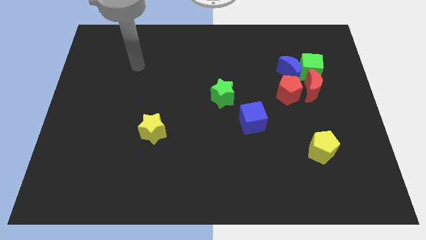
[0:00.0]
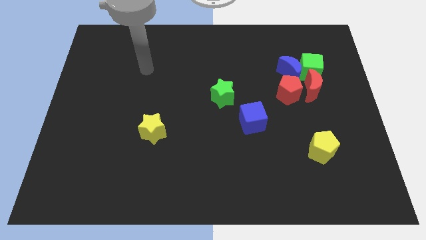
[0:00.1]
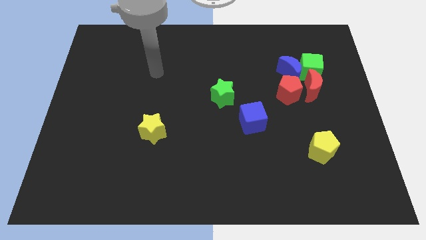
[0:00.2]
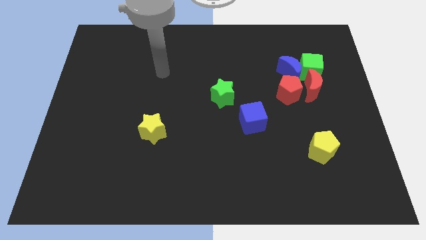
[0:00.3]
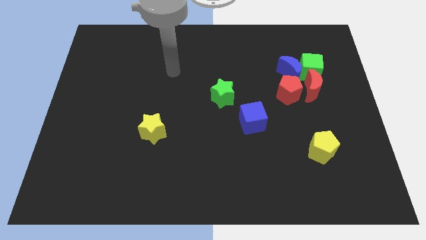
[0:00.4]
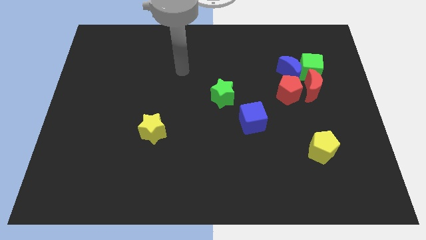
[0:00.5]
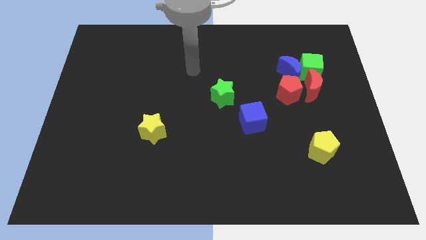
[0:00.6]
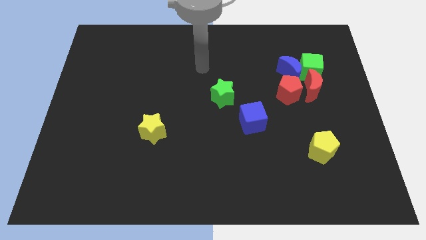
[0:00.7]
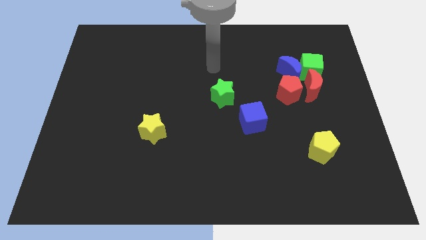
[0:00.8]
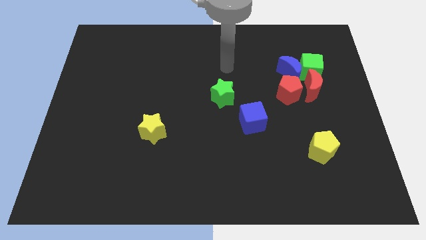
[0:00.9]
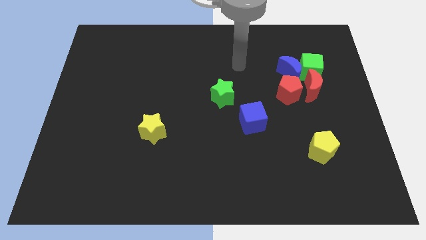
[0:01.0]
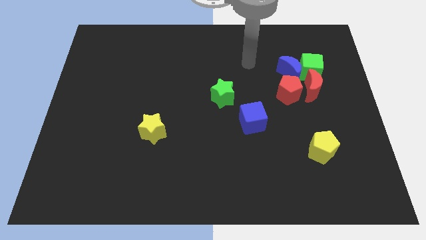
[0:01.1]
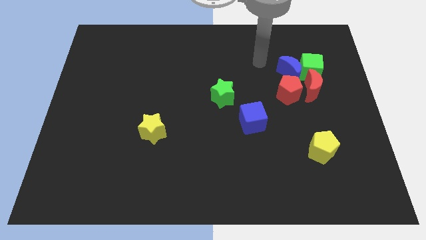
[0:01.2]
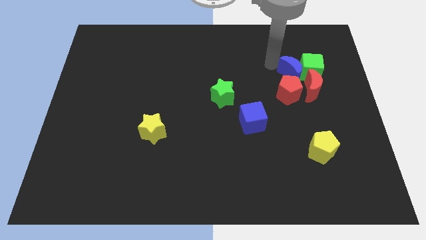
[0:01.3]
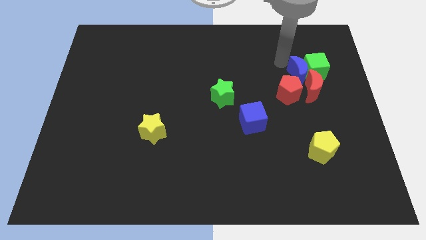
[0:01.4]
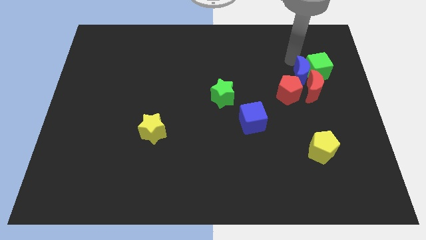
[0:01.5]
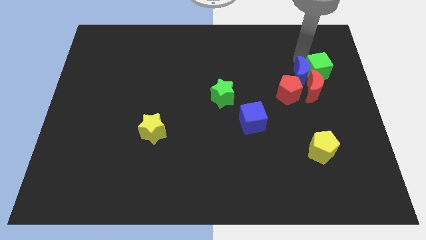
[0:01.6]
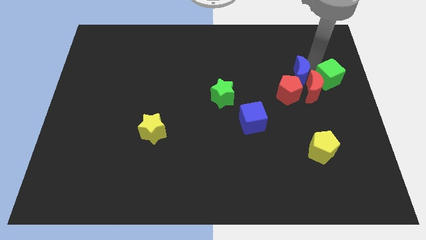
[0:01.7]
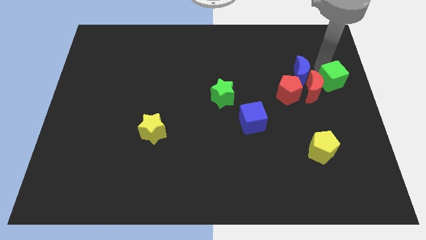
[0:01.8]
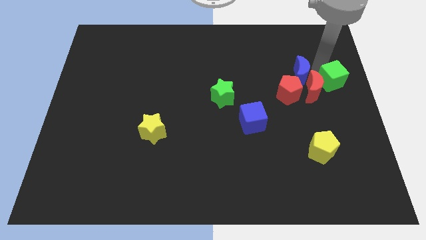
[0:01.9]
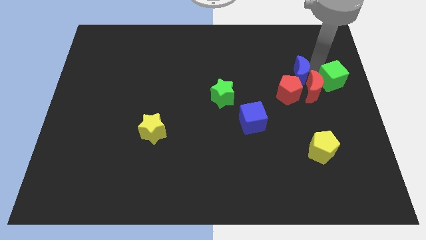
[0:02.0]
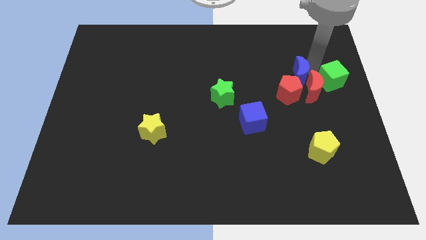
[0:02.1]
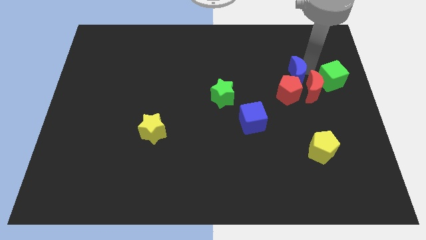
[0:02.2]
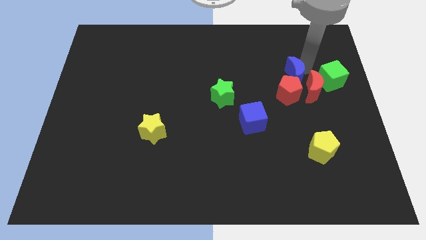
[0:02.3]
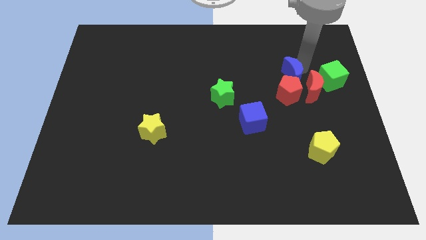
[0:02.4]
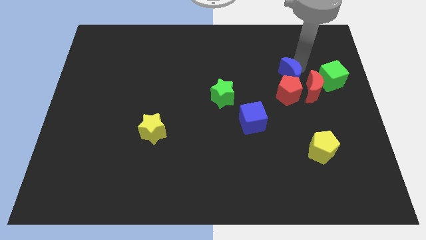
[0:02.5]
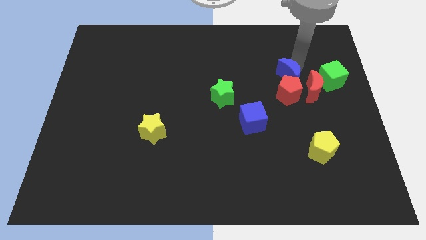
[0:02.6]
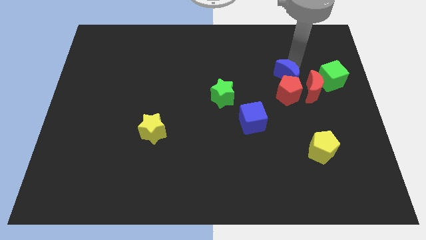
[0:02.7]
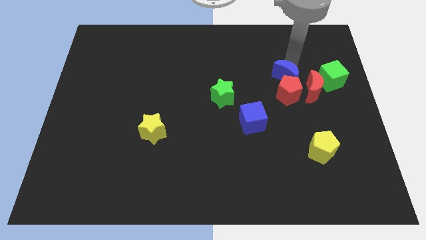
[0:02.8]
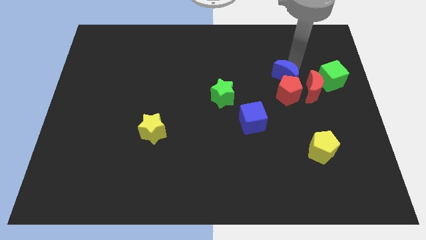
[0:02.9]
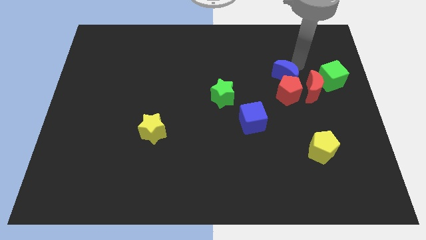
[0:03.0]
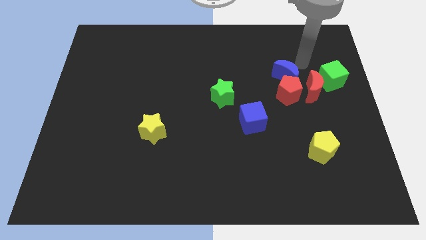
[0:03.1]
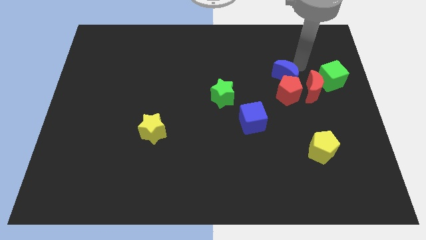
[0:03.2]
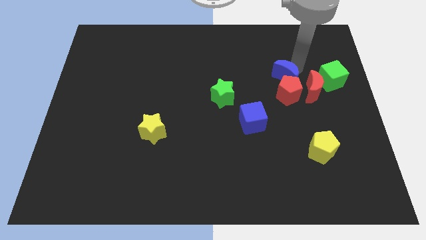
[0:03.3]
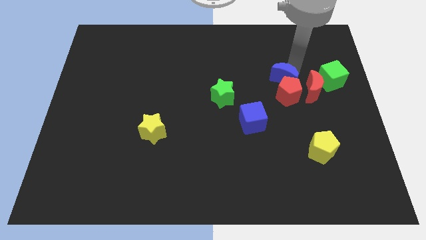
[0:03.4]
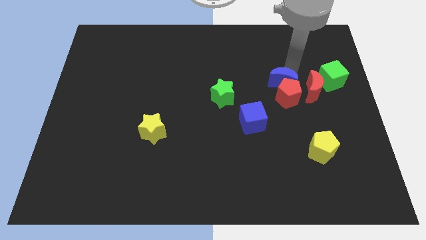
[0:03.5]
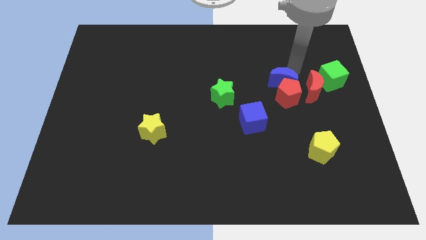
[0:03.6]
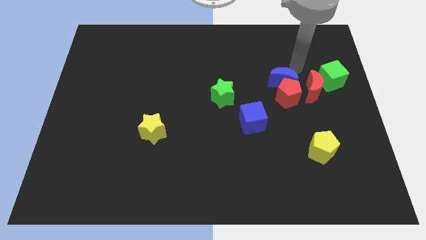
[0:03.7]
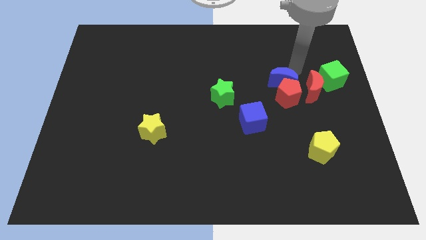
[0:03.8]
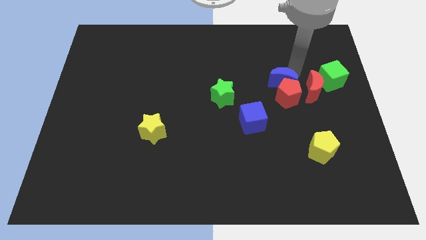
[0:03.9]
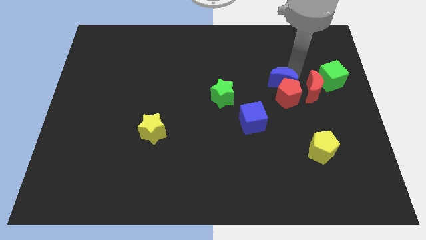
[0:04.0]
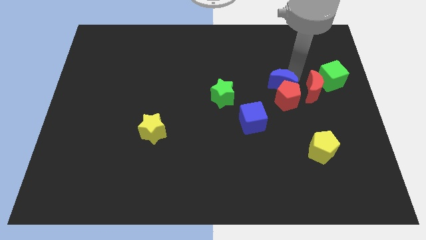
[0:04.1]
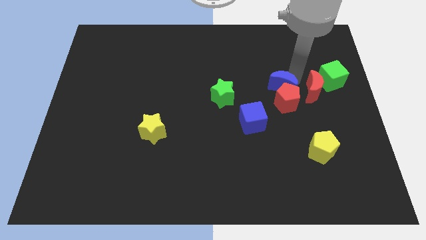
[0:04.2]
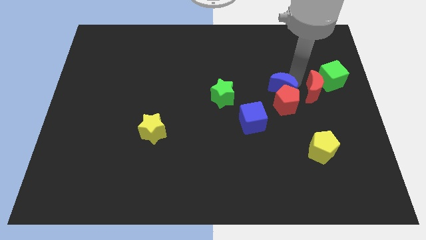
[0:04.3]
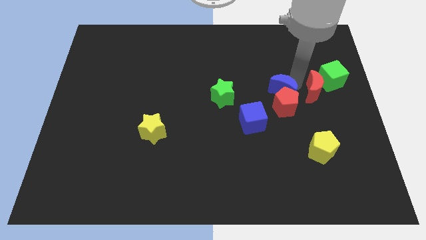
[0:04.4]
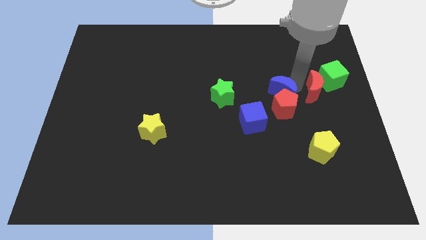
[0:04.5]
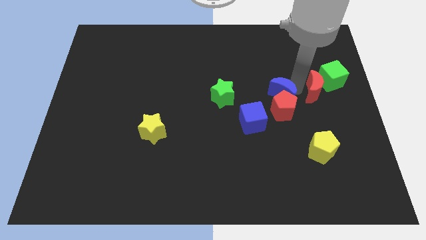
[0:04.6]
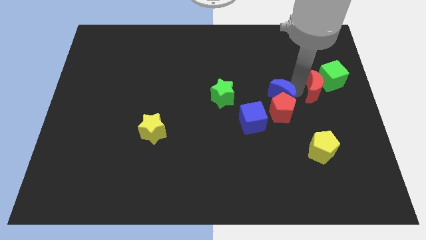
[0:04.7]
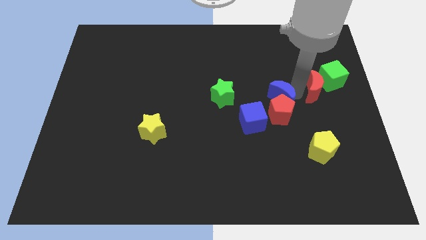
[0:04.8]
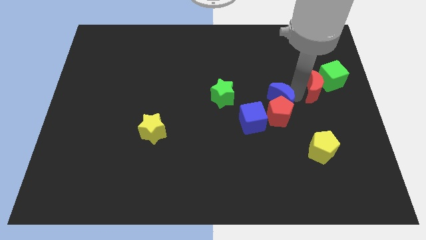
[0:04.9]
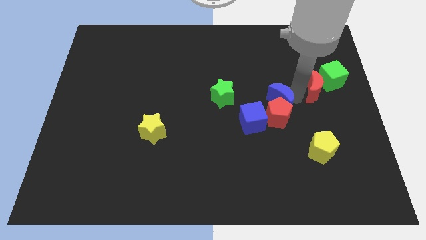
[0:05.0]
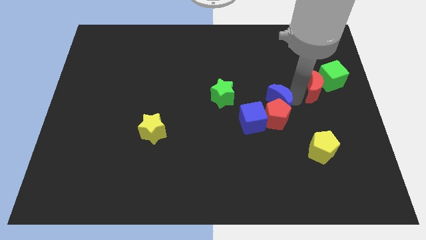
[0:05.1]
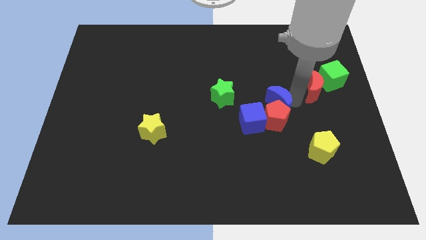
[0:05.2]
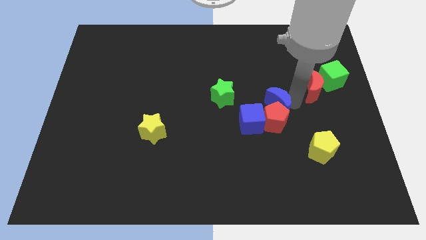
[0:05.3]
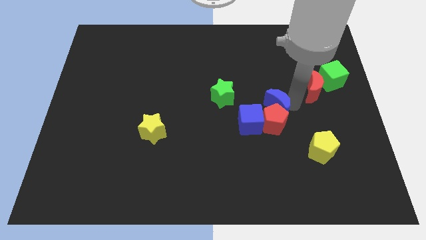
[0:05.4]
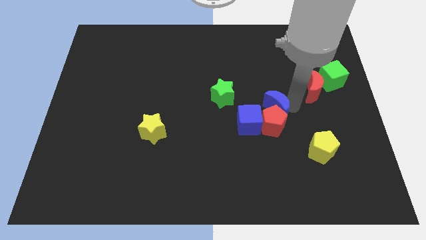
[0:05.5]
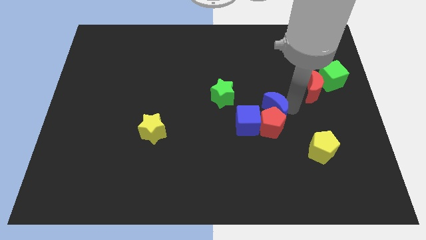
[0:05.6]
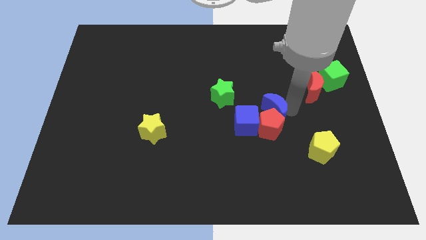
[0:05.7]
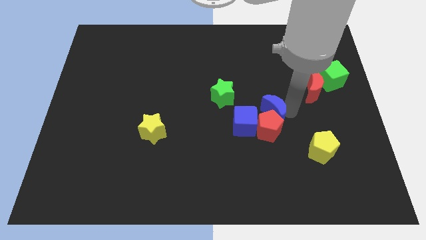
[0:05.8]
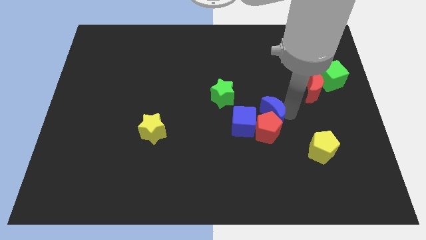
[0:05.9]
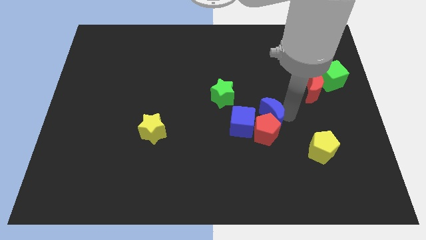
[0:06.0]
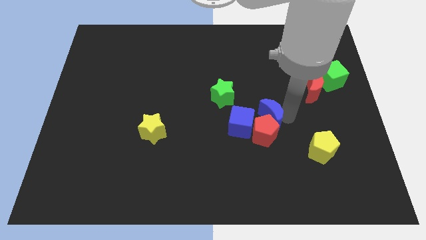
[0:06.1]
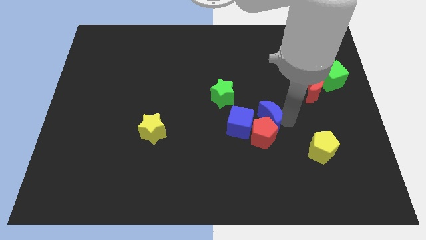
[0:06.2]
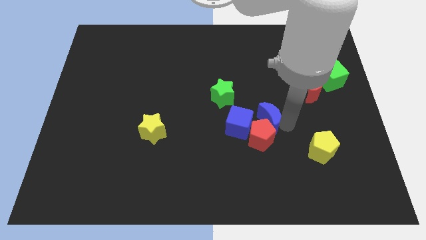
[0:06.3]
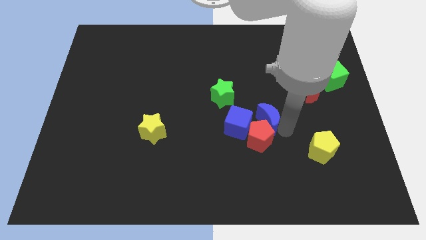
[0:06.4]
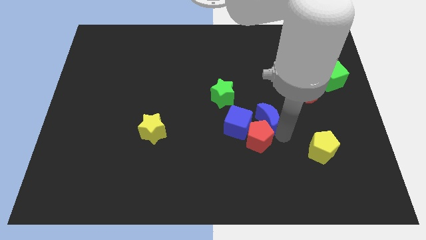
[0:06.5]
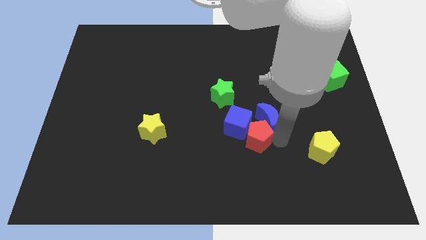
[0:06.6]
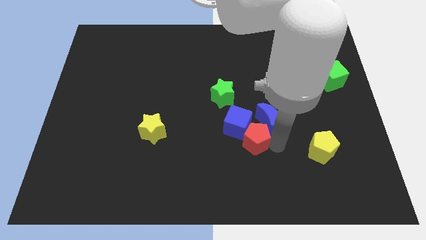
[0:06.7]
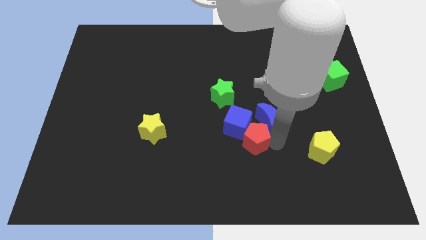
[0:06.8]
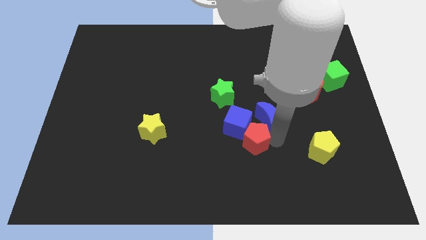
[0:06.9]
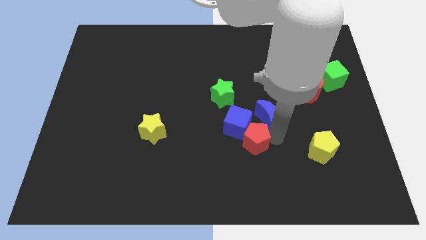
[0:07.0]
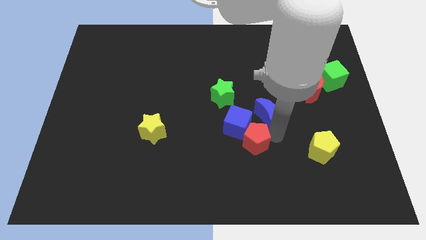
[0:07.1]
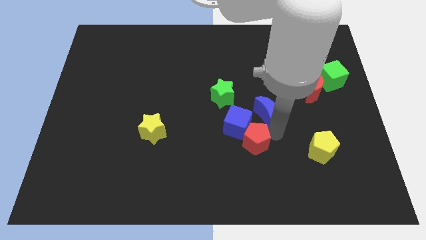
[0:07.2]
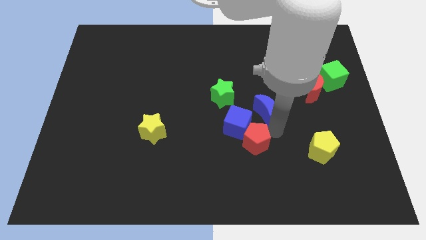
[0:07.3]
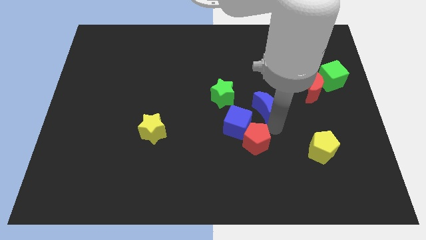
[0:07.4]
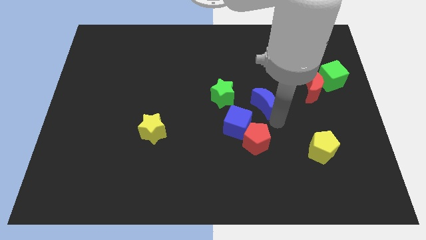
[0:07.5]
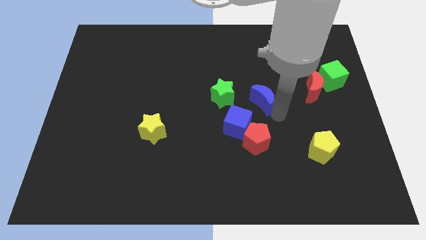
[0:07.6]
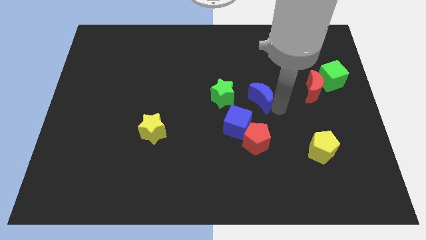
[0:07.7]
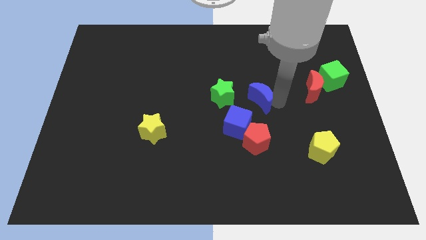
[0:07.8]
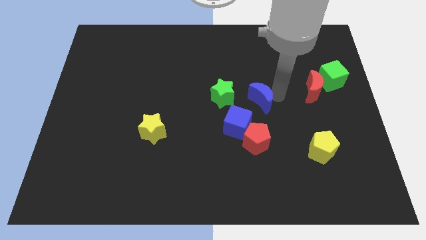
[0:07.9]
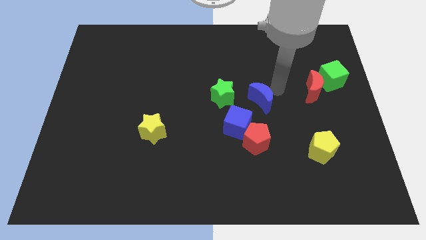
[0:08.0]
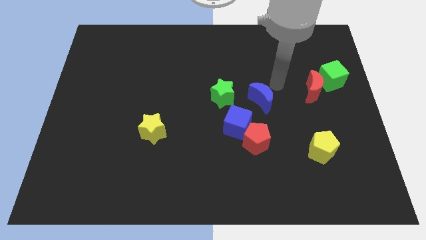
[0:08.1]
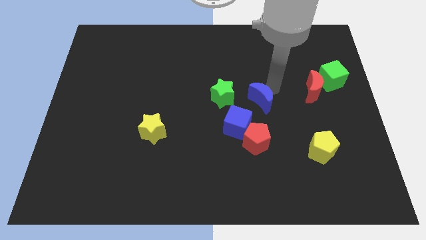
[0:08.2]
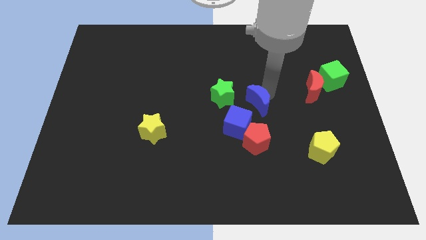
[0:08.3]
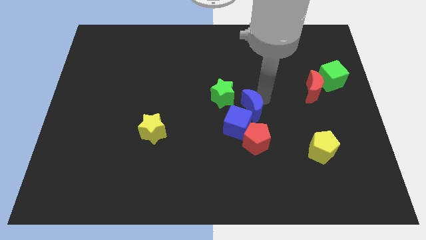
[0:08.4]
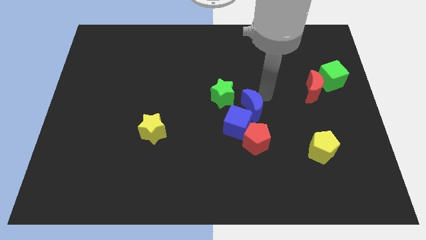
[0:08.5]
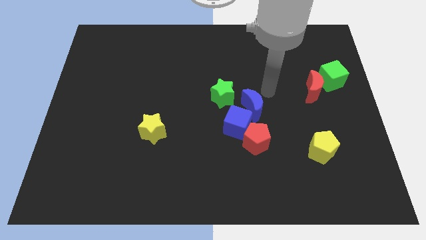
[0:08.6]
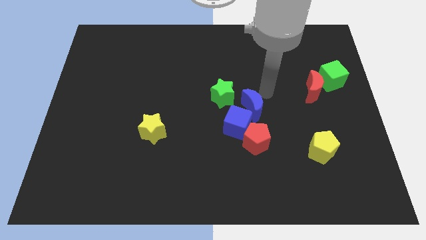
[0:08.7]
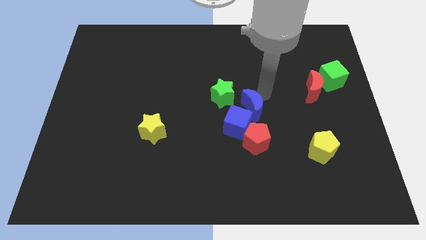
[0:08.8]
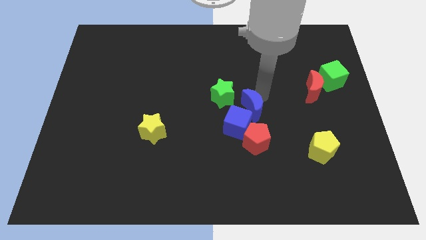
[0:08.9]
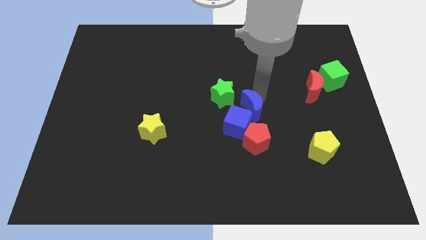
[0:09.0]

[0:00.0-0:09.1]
push the blue moon towards the blue cube
